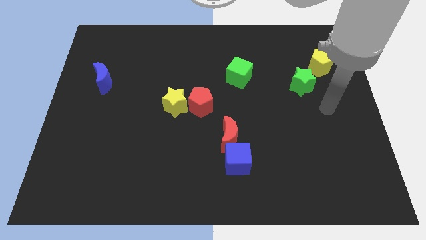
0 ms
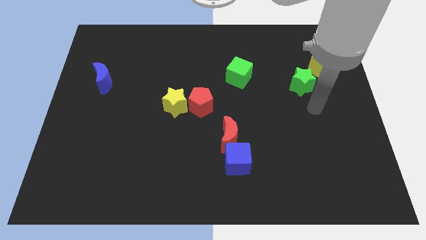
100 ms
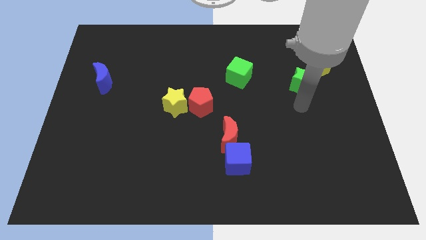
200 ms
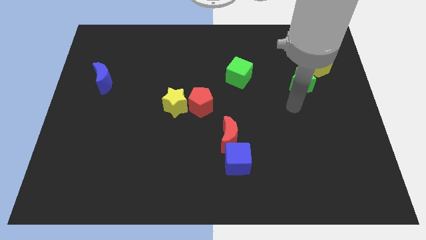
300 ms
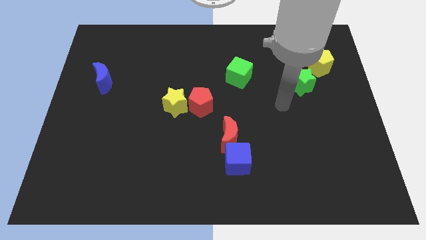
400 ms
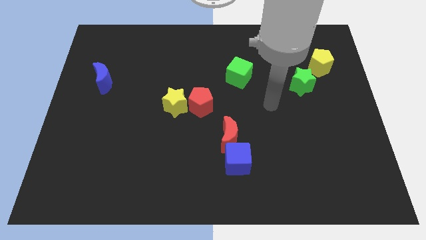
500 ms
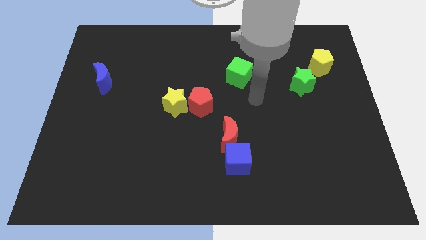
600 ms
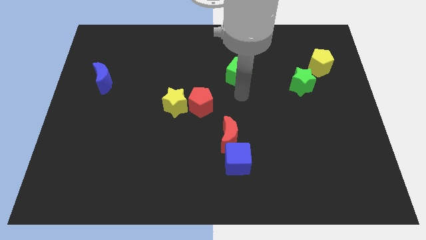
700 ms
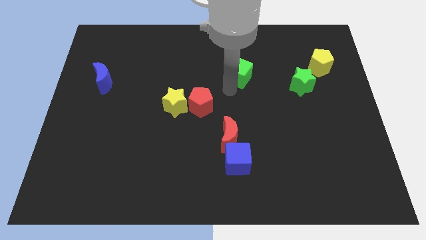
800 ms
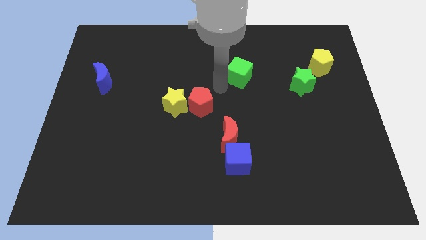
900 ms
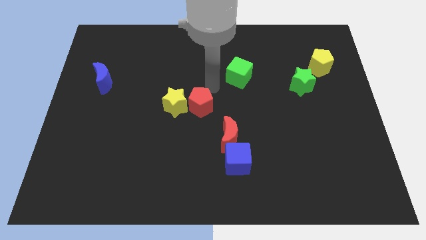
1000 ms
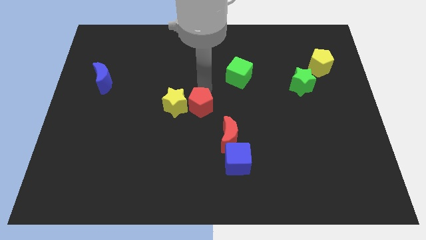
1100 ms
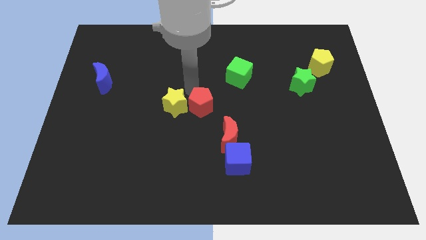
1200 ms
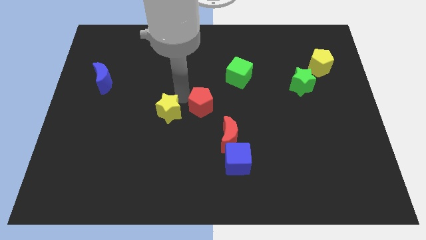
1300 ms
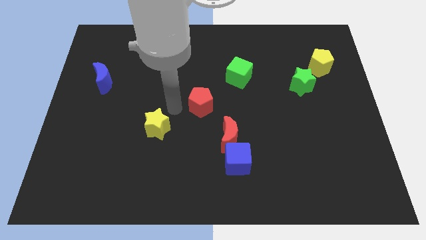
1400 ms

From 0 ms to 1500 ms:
pull the red pentagon apart from the yellow star

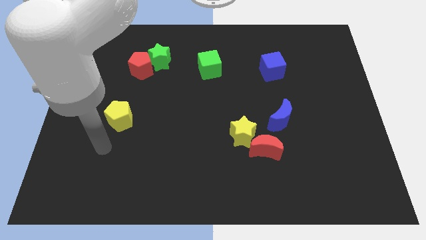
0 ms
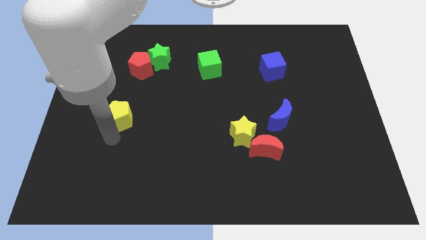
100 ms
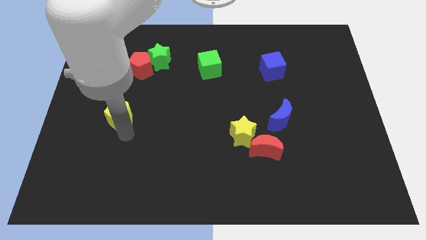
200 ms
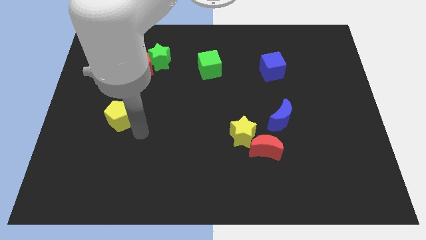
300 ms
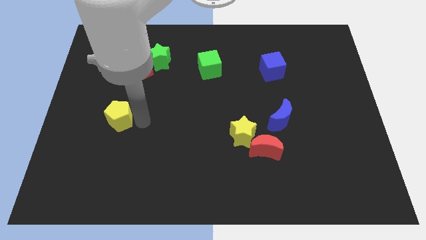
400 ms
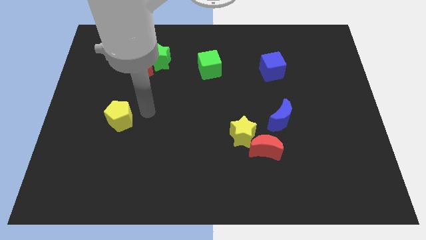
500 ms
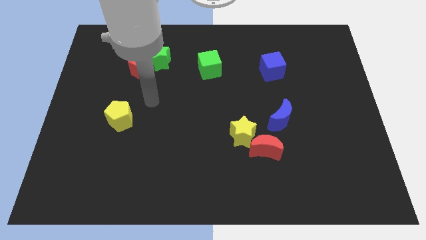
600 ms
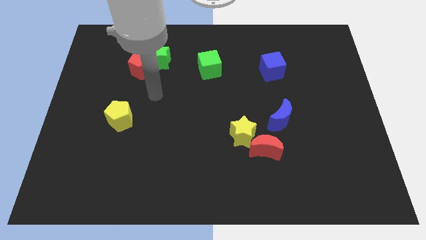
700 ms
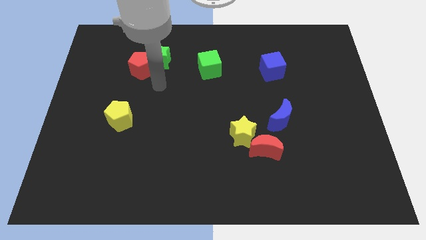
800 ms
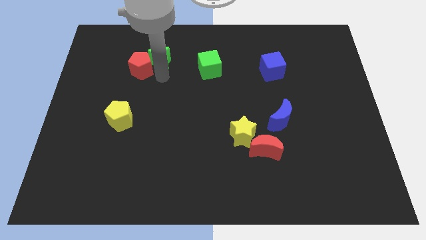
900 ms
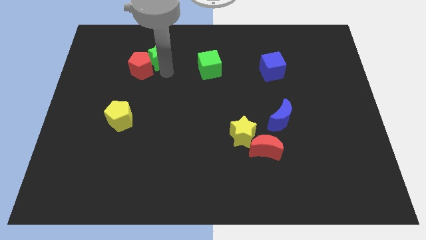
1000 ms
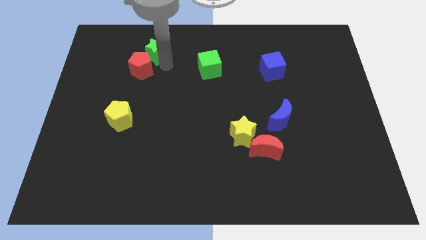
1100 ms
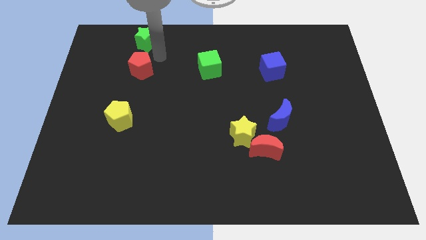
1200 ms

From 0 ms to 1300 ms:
pull the red pentagon apart from the green star

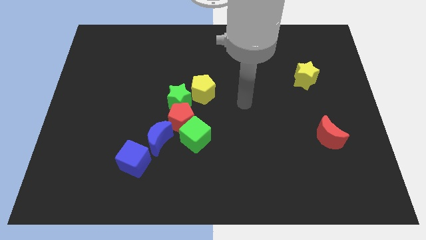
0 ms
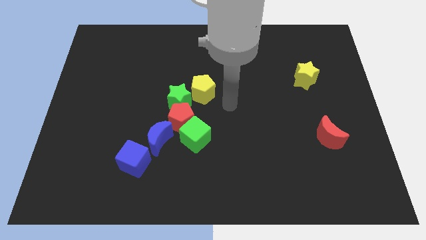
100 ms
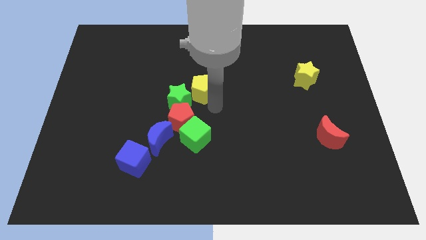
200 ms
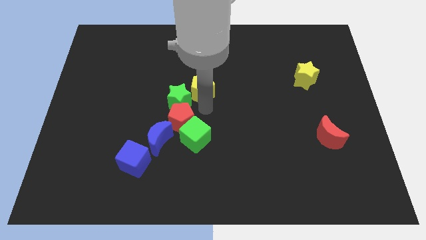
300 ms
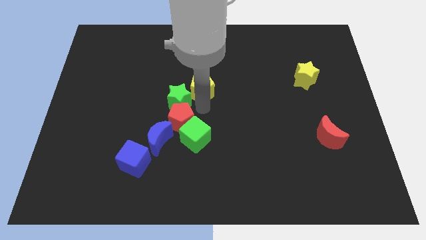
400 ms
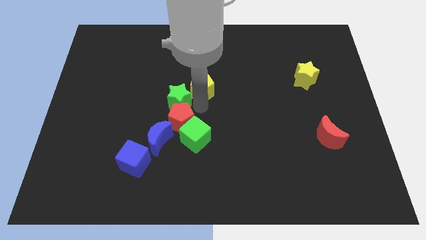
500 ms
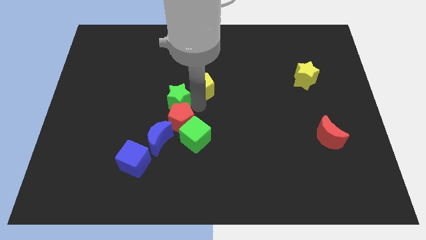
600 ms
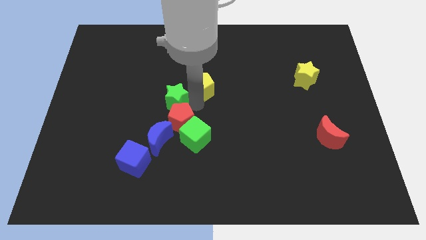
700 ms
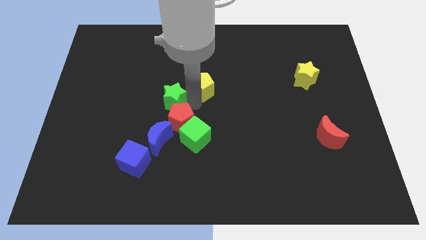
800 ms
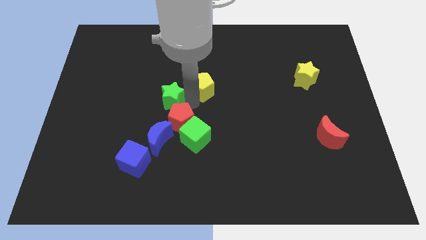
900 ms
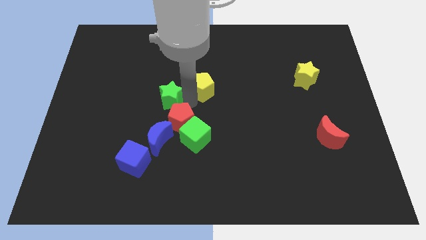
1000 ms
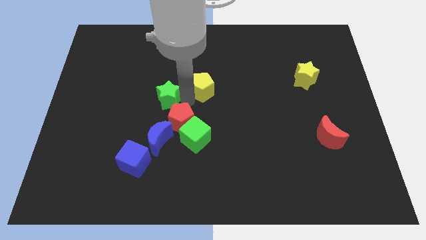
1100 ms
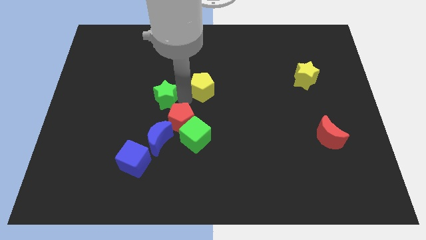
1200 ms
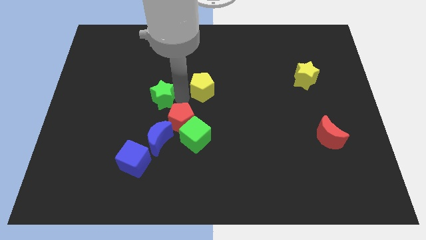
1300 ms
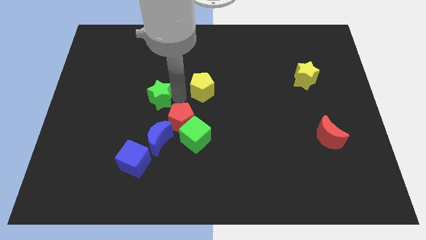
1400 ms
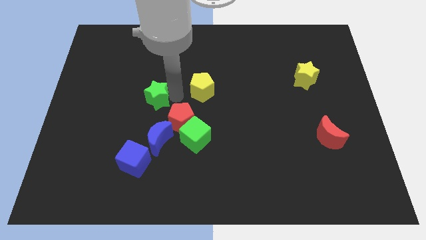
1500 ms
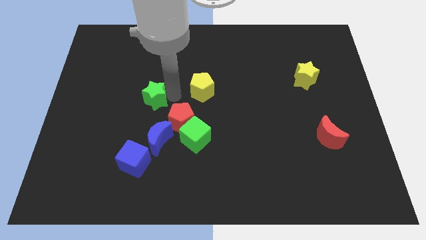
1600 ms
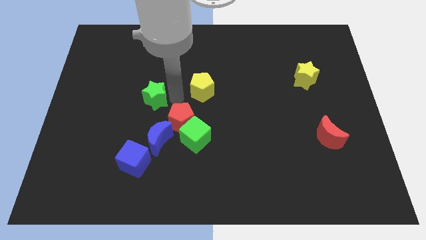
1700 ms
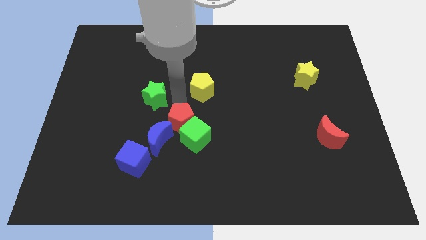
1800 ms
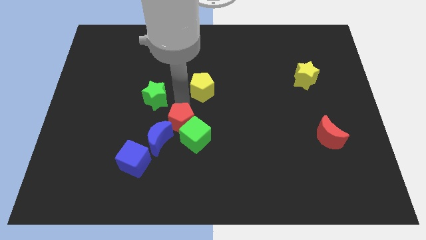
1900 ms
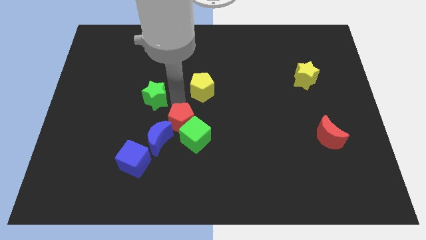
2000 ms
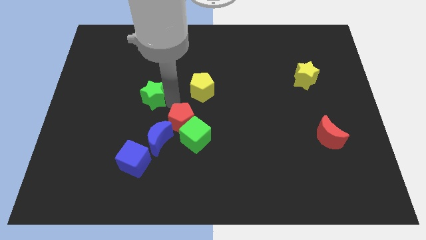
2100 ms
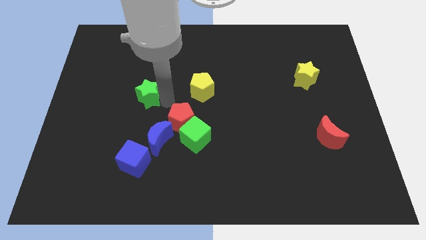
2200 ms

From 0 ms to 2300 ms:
move the green star away from the red pentagon and yellow pentagon

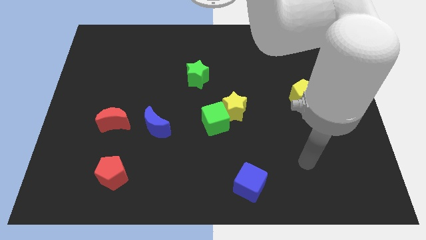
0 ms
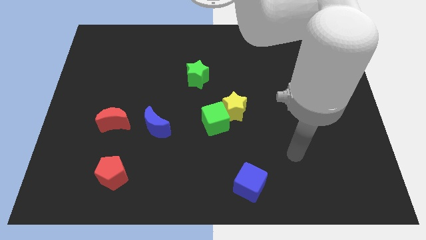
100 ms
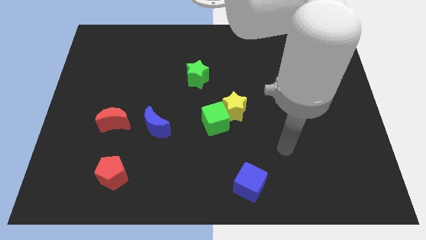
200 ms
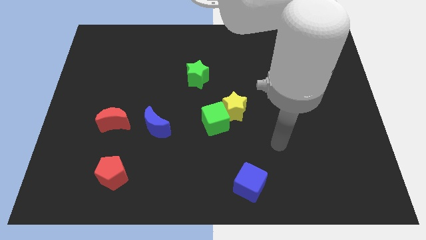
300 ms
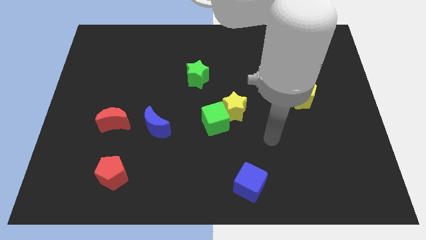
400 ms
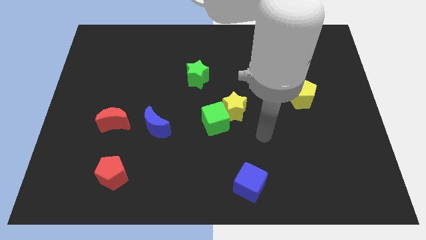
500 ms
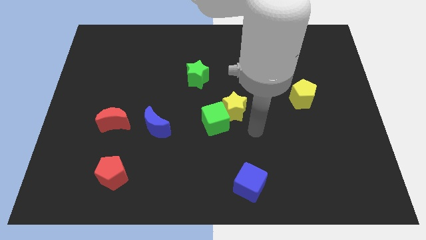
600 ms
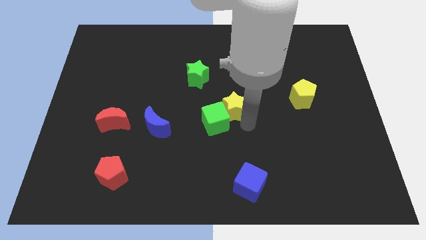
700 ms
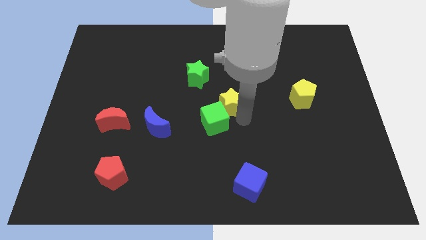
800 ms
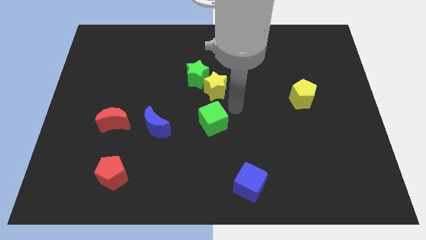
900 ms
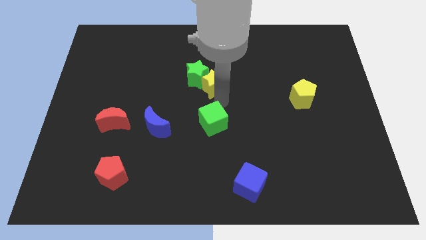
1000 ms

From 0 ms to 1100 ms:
pull the green cube apart from the yellow star

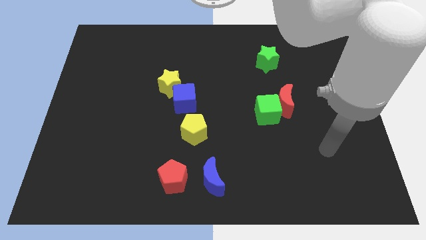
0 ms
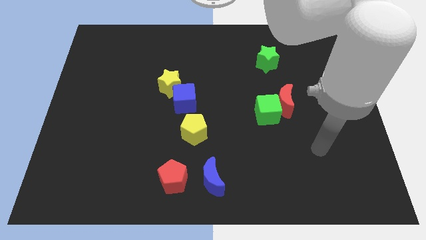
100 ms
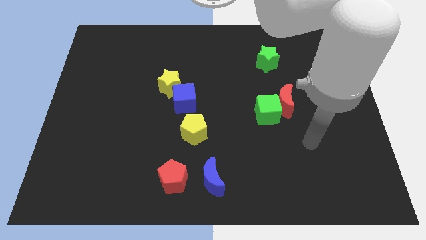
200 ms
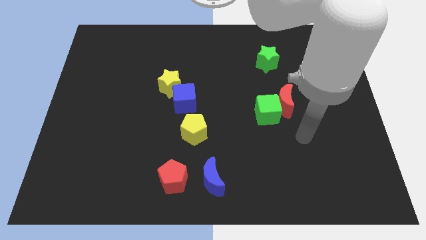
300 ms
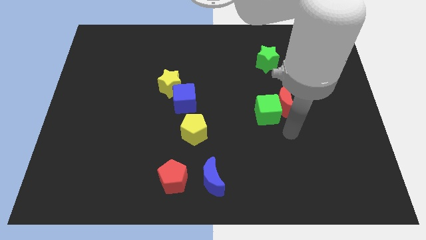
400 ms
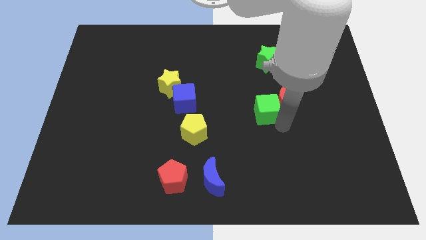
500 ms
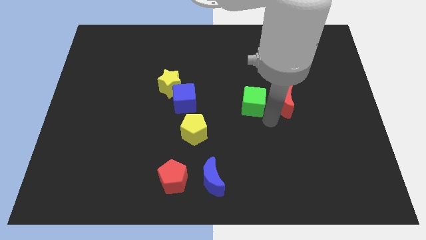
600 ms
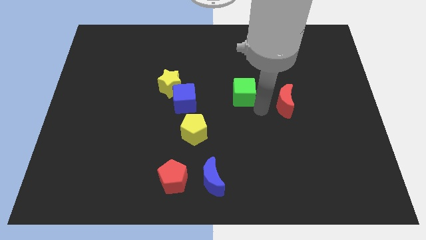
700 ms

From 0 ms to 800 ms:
pull the red moon apart from the green cube

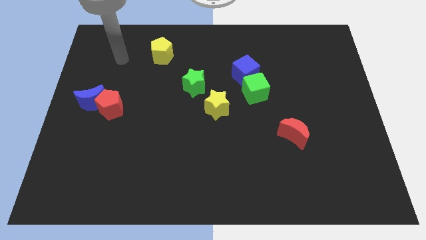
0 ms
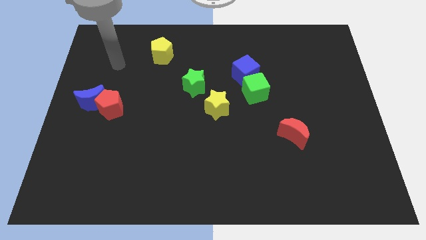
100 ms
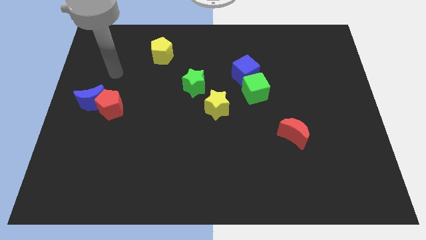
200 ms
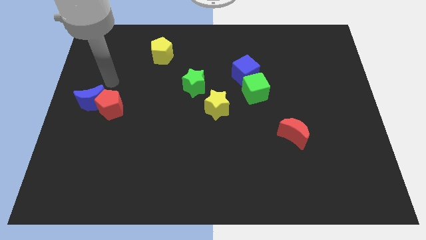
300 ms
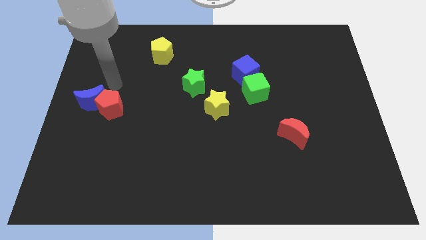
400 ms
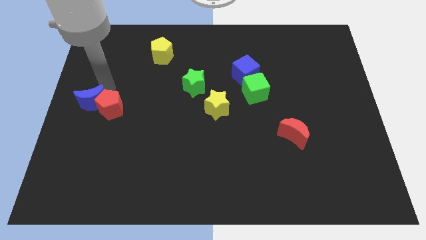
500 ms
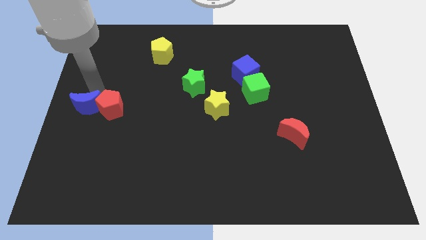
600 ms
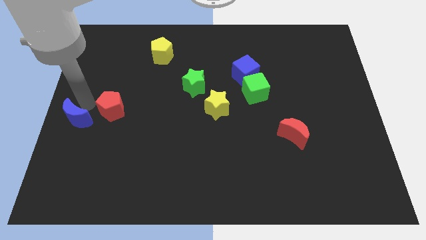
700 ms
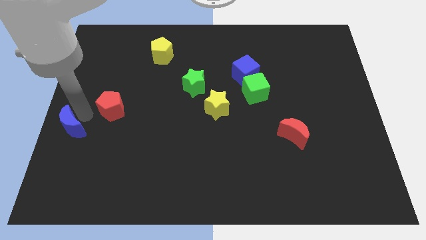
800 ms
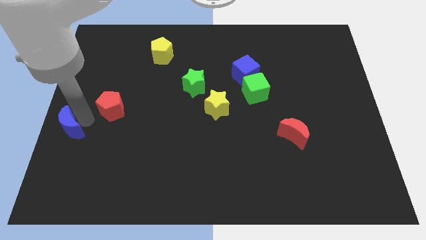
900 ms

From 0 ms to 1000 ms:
separate the red pentagon from the blue moon

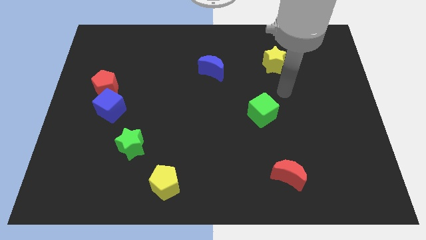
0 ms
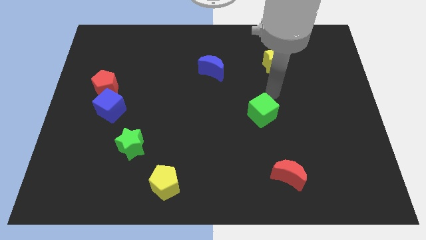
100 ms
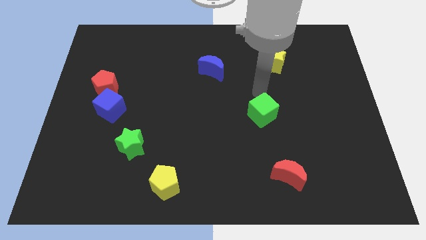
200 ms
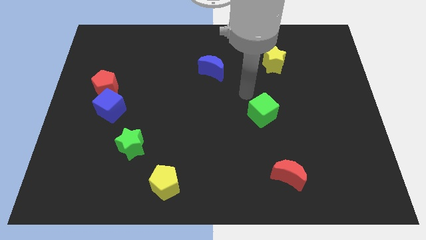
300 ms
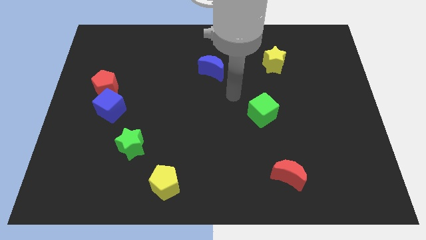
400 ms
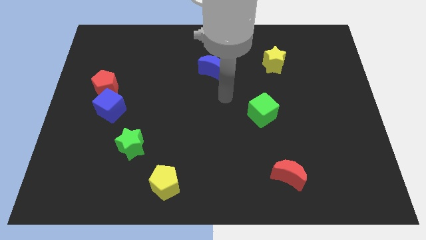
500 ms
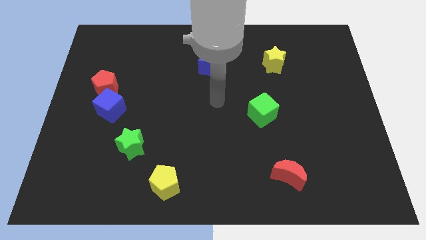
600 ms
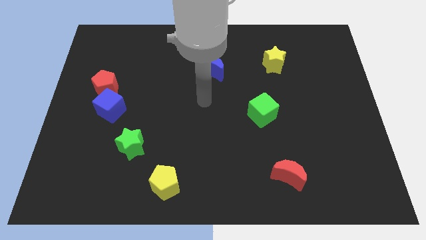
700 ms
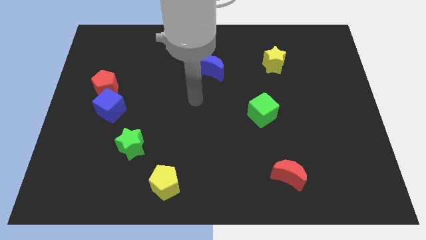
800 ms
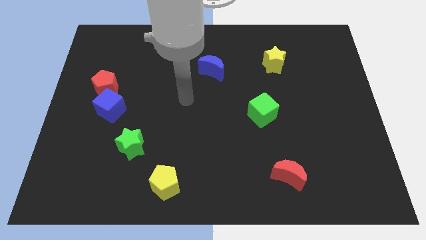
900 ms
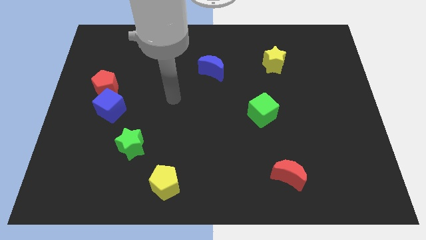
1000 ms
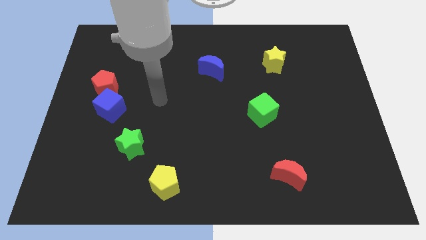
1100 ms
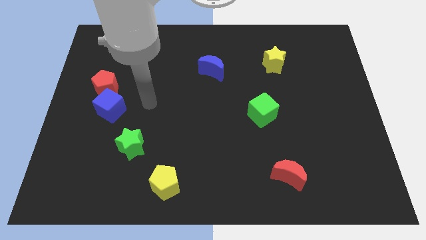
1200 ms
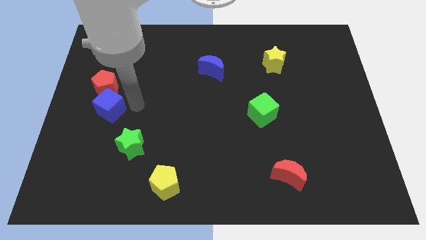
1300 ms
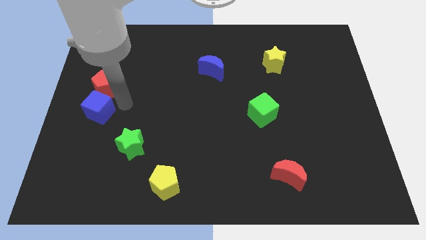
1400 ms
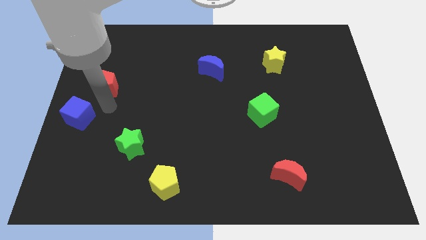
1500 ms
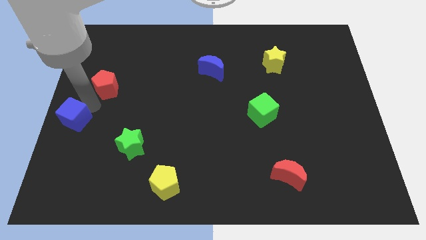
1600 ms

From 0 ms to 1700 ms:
pull the red pentagon apart from the blue cube
